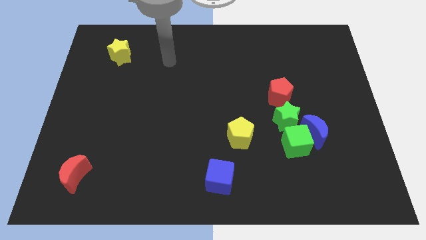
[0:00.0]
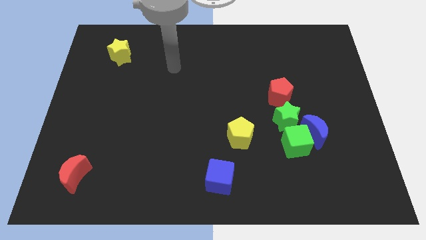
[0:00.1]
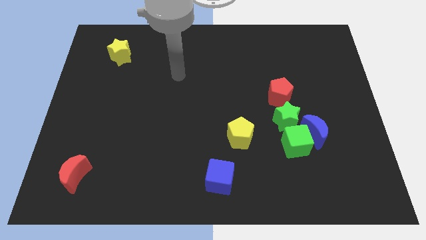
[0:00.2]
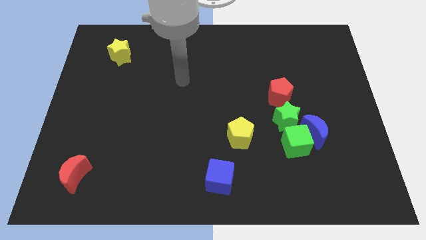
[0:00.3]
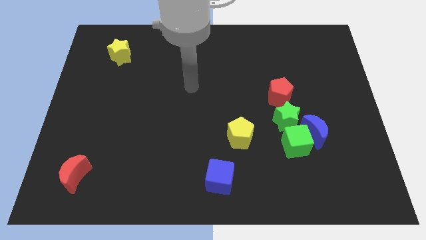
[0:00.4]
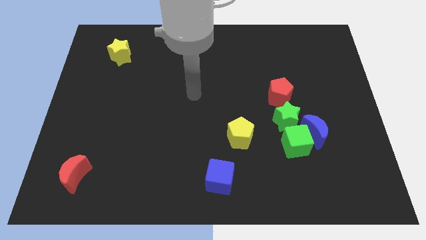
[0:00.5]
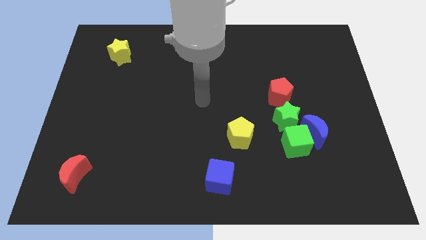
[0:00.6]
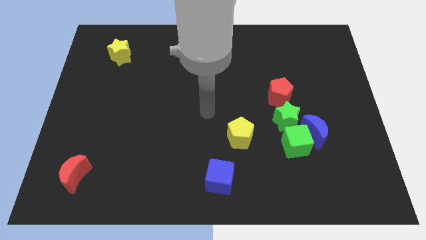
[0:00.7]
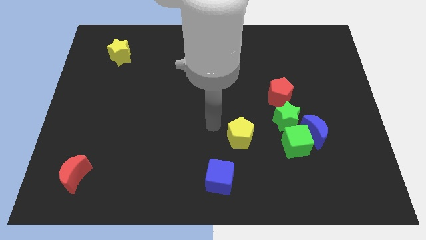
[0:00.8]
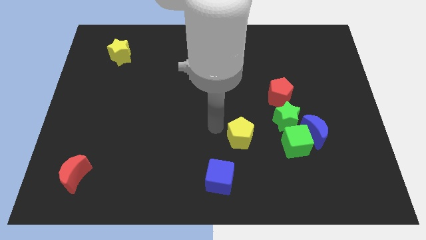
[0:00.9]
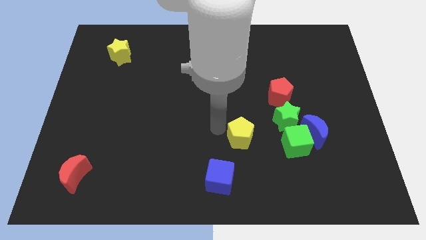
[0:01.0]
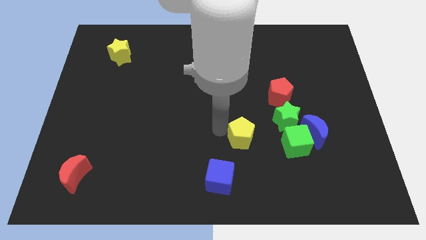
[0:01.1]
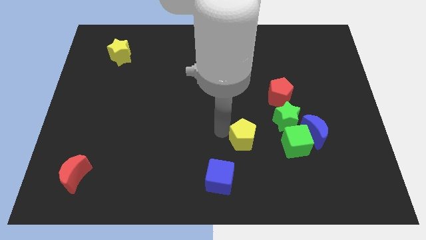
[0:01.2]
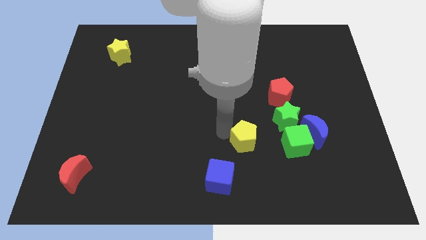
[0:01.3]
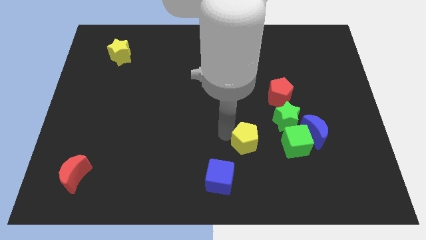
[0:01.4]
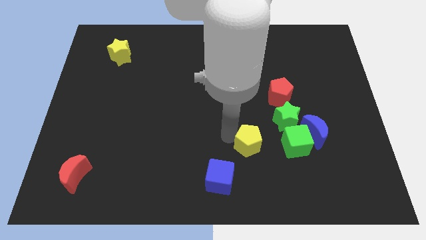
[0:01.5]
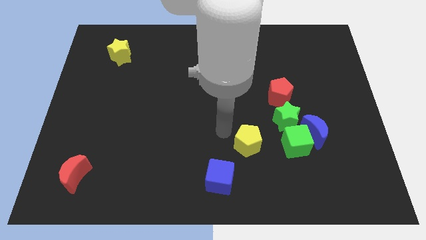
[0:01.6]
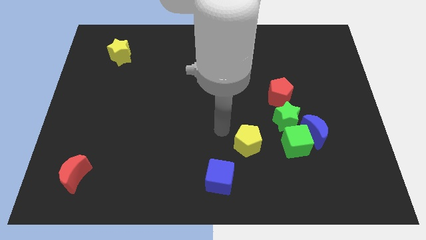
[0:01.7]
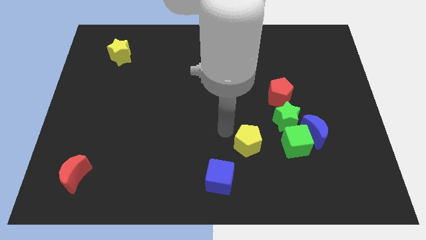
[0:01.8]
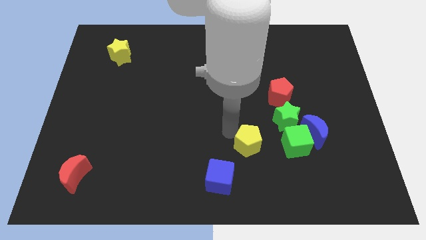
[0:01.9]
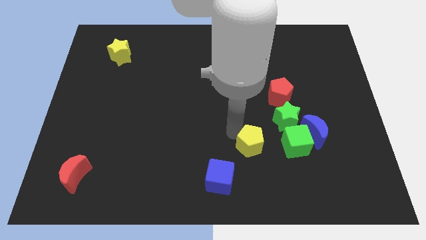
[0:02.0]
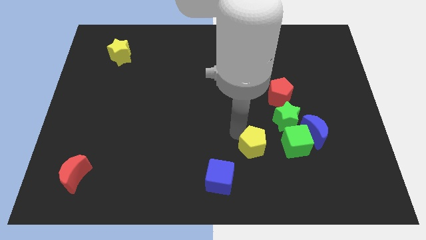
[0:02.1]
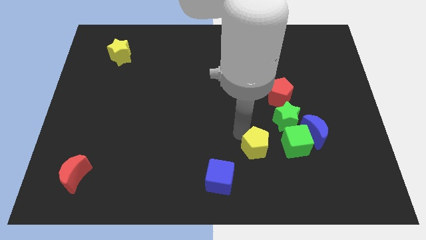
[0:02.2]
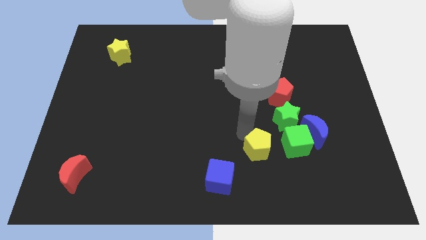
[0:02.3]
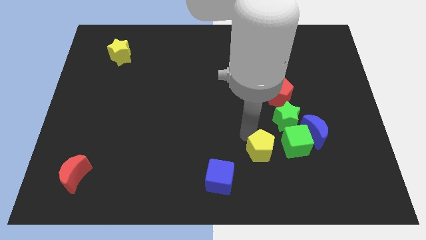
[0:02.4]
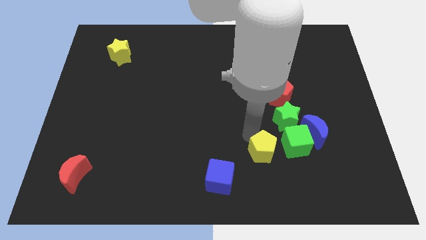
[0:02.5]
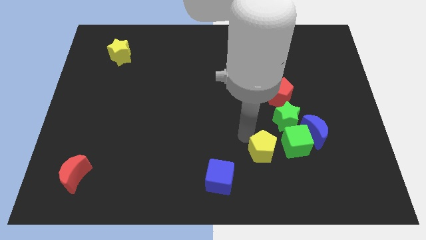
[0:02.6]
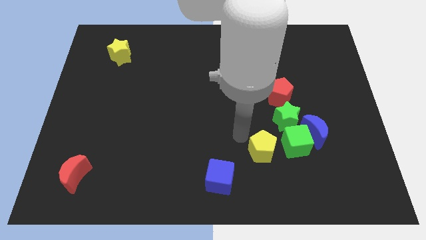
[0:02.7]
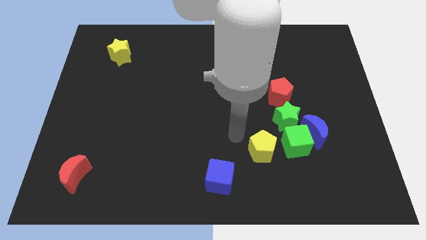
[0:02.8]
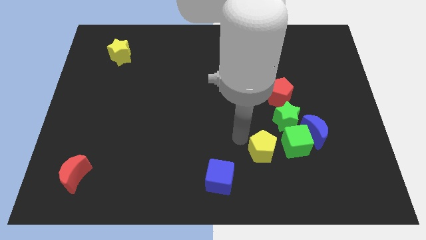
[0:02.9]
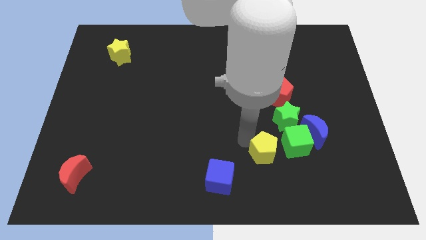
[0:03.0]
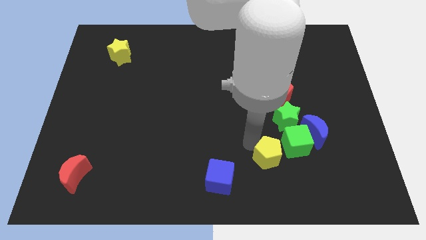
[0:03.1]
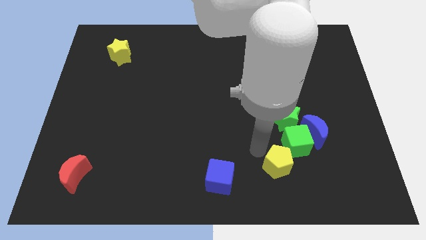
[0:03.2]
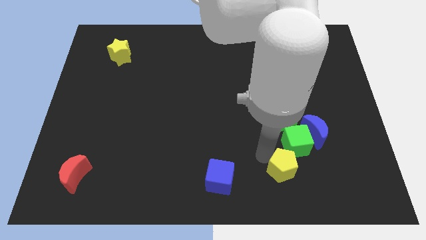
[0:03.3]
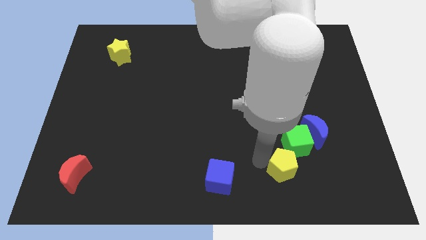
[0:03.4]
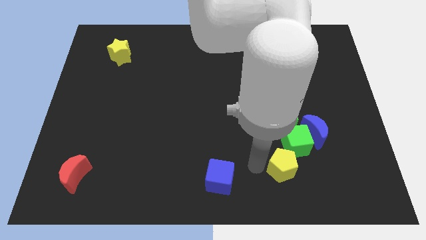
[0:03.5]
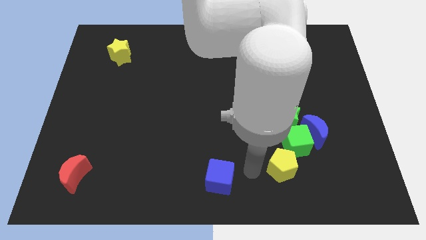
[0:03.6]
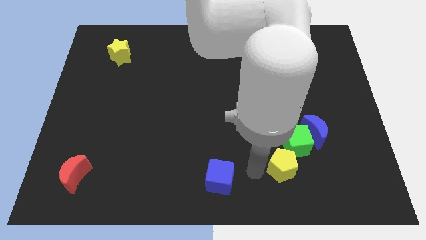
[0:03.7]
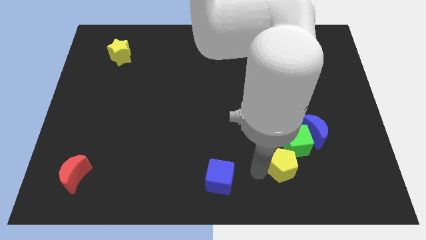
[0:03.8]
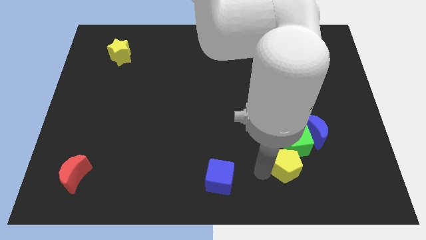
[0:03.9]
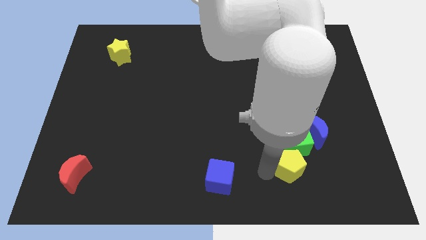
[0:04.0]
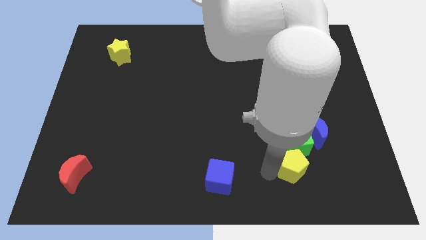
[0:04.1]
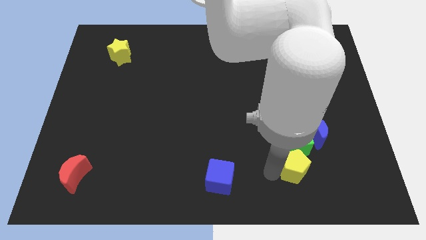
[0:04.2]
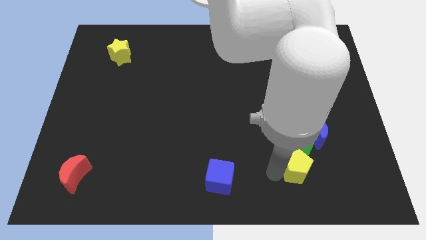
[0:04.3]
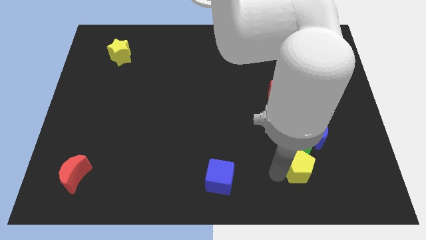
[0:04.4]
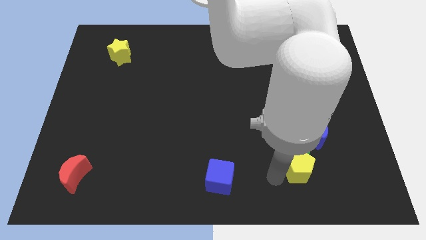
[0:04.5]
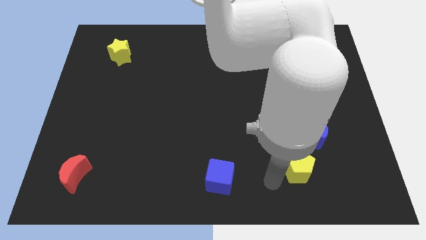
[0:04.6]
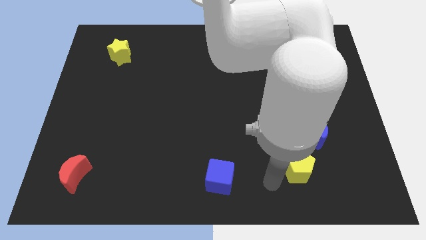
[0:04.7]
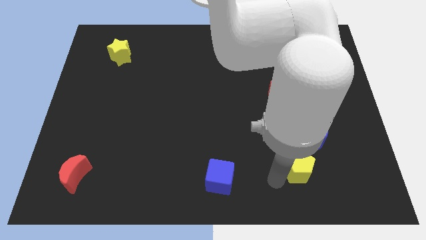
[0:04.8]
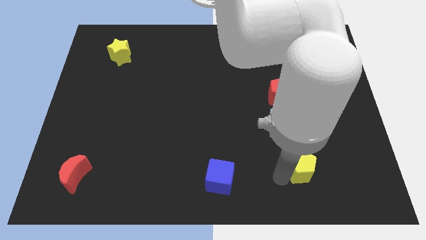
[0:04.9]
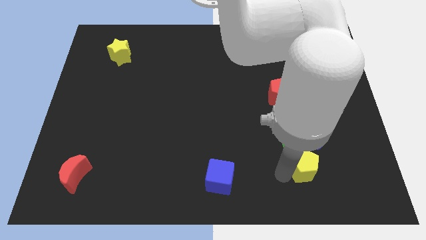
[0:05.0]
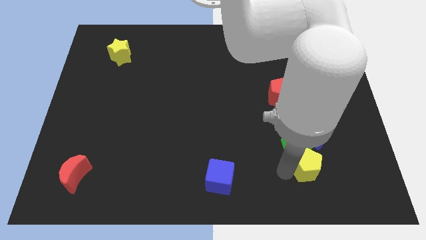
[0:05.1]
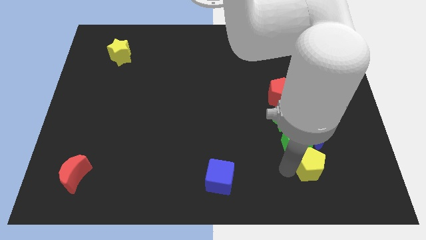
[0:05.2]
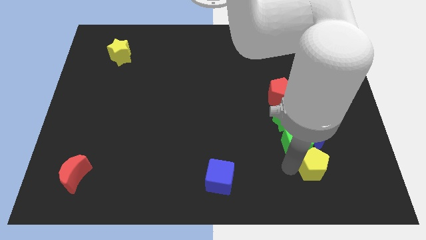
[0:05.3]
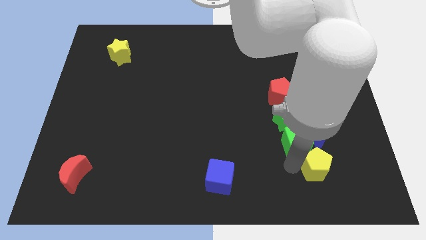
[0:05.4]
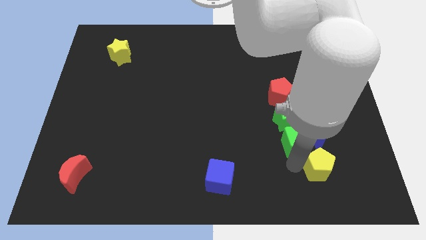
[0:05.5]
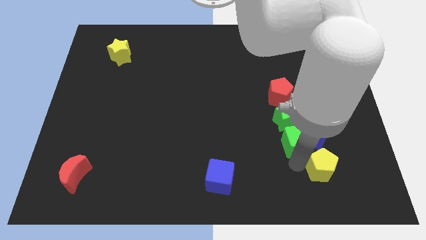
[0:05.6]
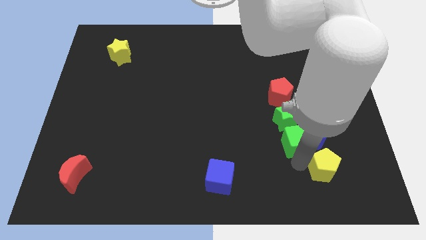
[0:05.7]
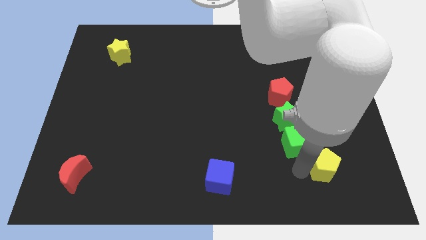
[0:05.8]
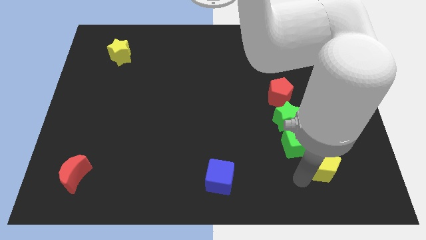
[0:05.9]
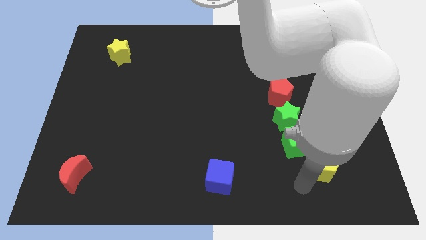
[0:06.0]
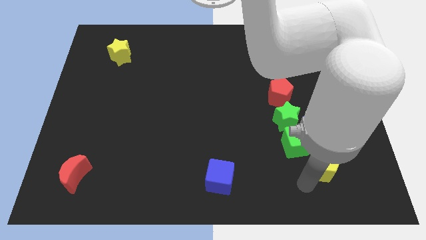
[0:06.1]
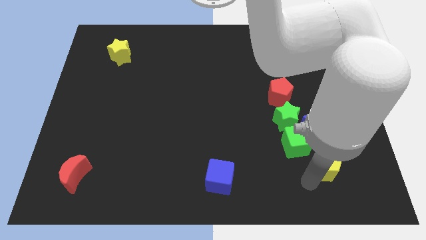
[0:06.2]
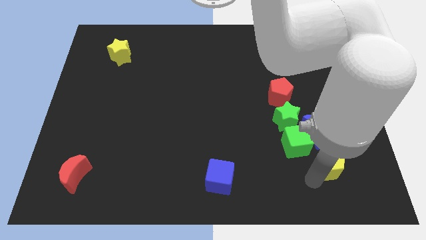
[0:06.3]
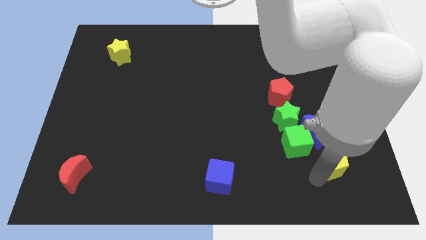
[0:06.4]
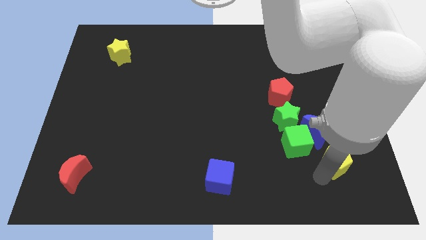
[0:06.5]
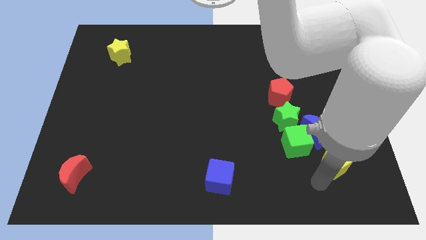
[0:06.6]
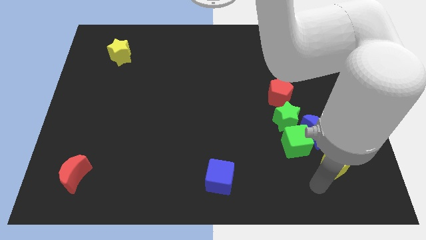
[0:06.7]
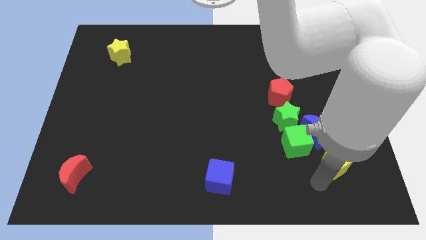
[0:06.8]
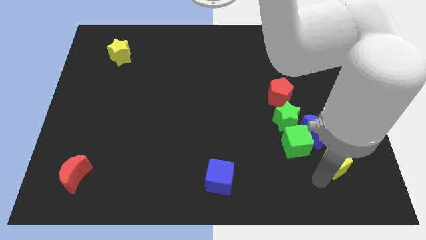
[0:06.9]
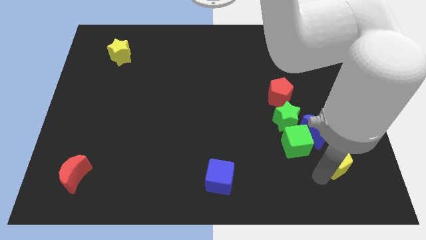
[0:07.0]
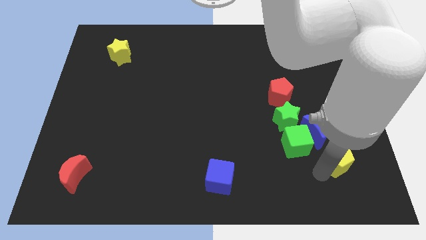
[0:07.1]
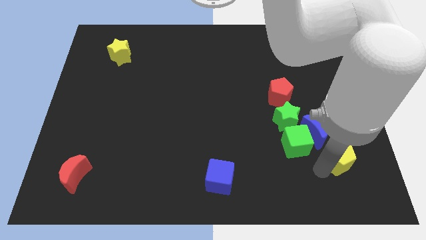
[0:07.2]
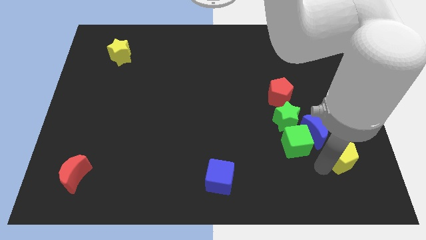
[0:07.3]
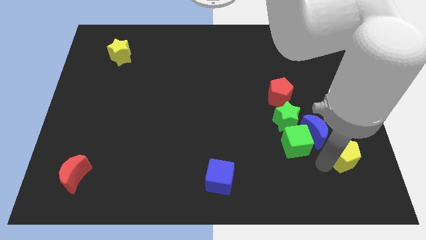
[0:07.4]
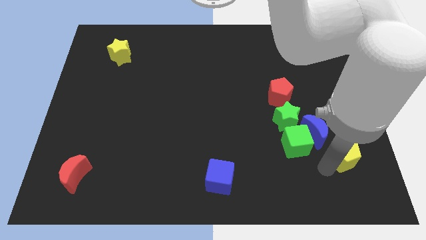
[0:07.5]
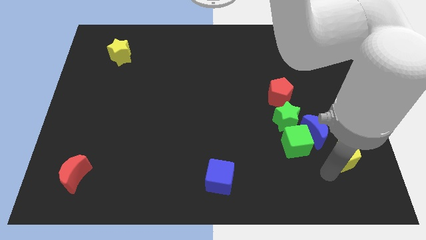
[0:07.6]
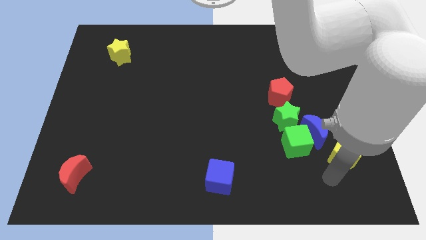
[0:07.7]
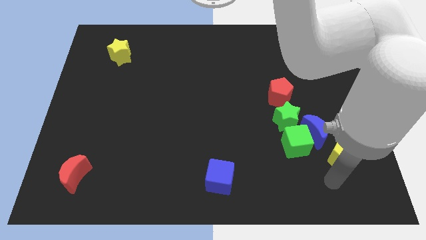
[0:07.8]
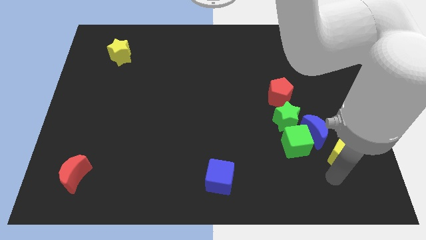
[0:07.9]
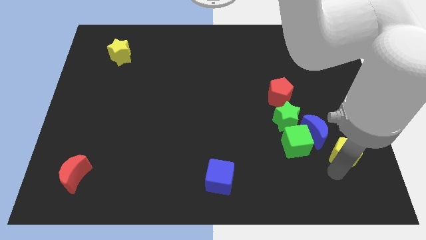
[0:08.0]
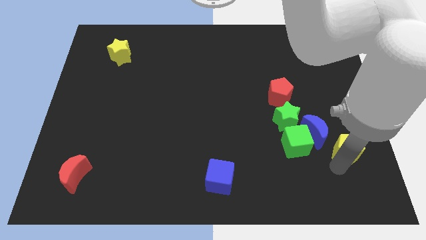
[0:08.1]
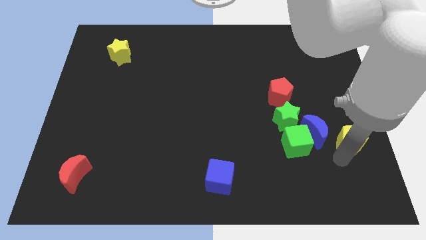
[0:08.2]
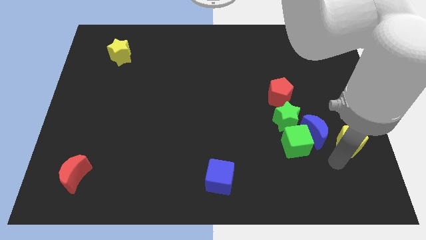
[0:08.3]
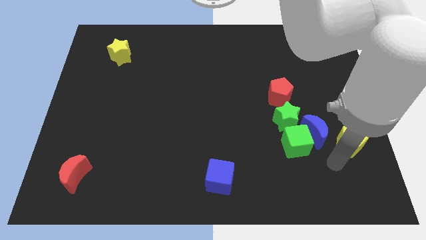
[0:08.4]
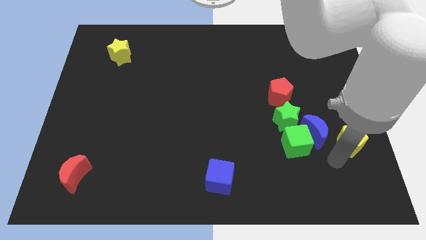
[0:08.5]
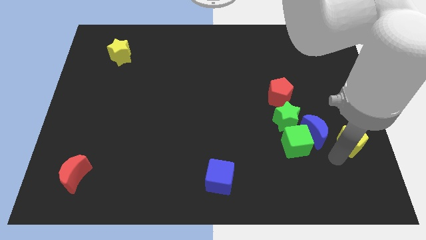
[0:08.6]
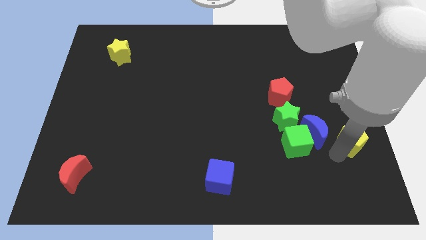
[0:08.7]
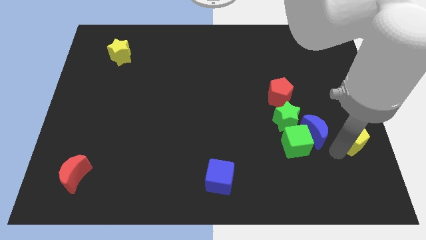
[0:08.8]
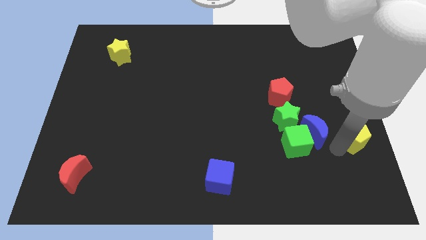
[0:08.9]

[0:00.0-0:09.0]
slide the yellow pentagon to the center right
